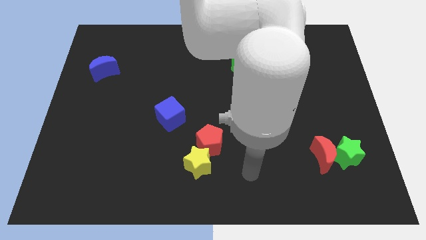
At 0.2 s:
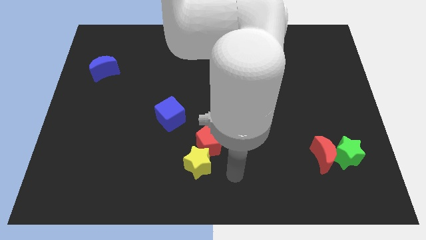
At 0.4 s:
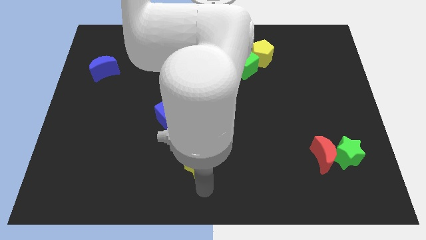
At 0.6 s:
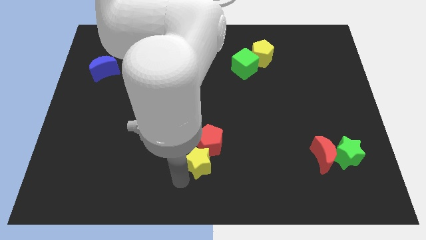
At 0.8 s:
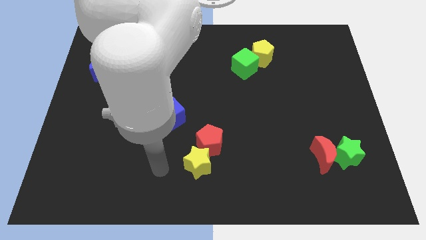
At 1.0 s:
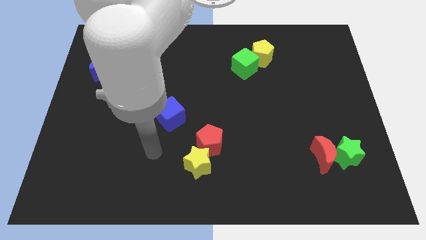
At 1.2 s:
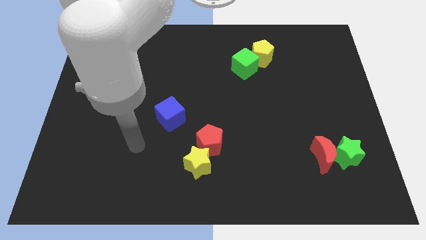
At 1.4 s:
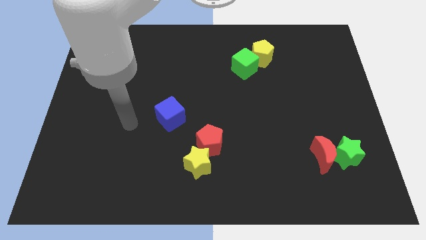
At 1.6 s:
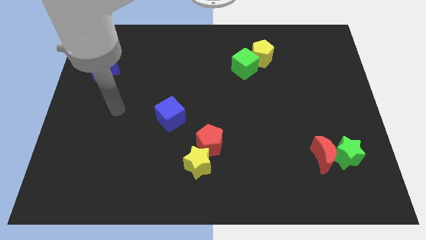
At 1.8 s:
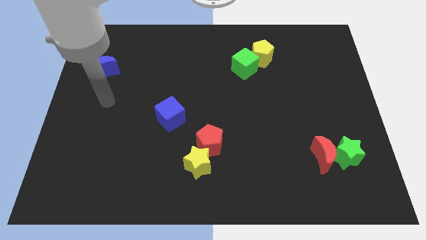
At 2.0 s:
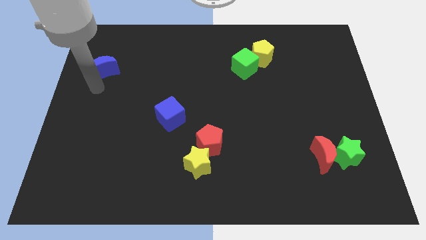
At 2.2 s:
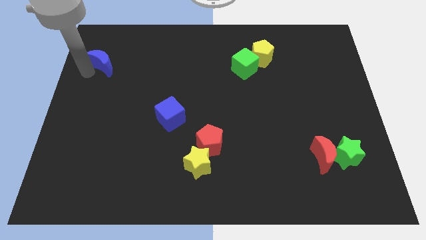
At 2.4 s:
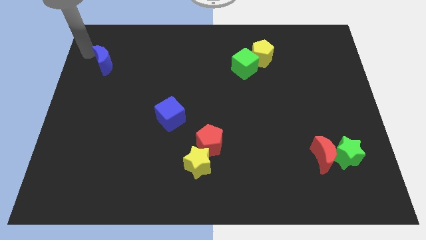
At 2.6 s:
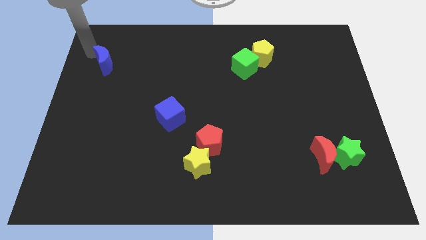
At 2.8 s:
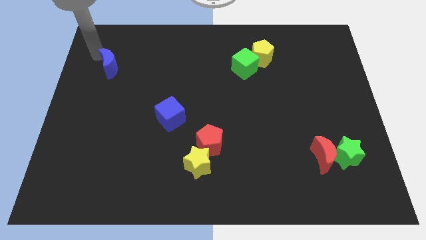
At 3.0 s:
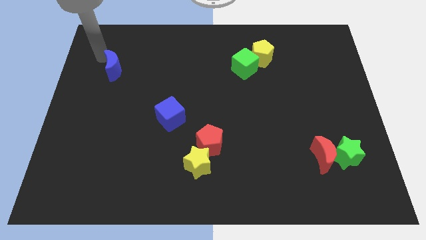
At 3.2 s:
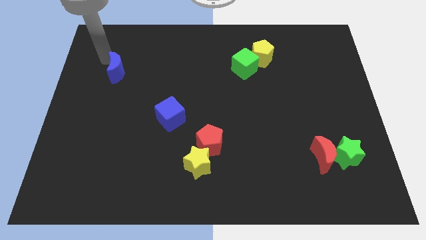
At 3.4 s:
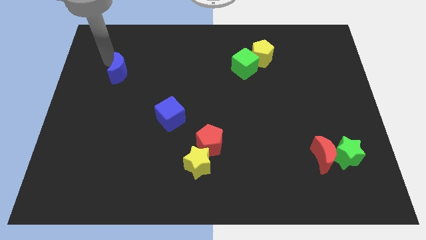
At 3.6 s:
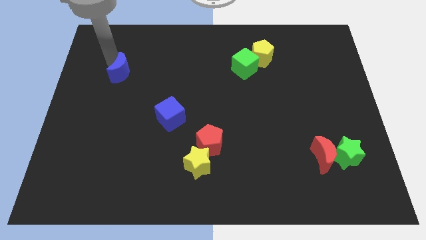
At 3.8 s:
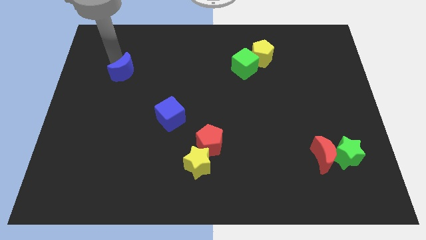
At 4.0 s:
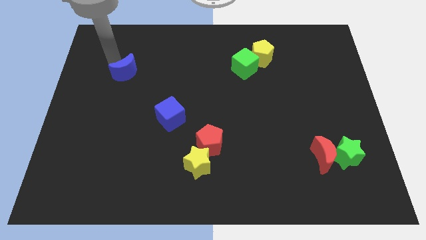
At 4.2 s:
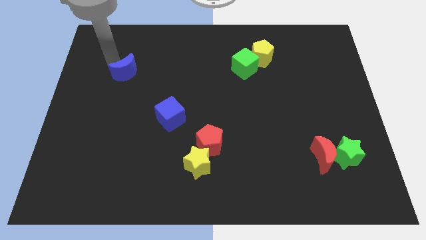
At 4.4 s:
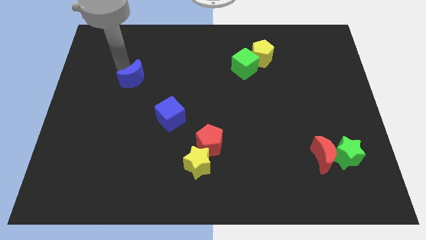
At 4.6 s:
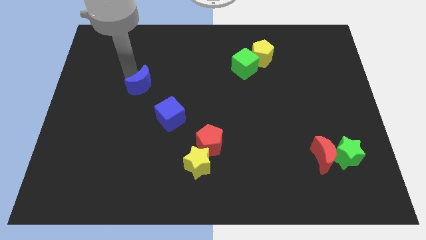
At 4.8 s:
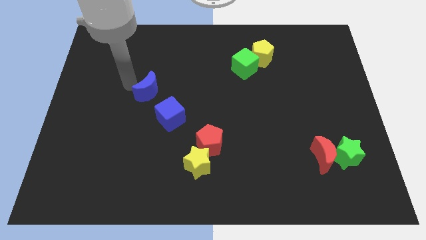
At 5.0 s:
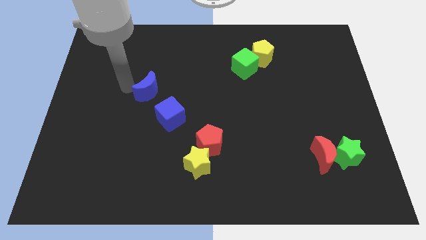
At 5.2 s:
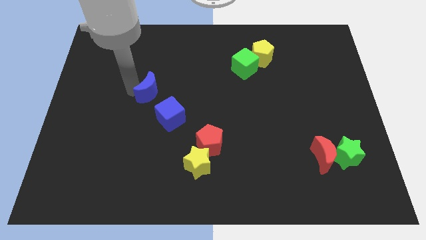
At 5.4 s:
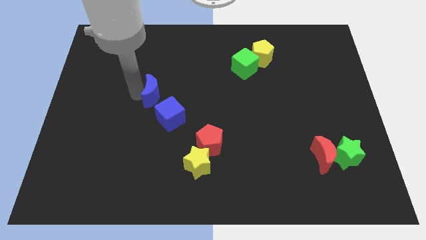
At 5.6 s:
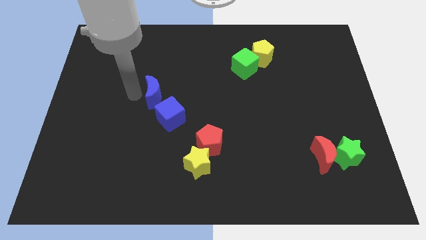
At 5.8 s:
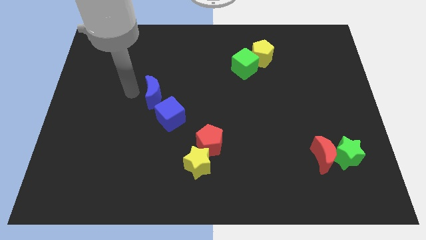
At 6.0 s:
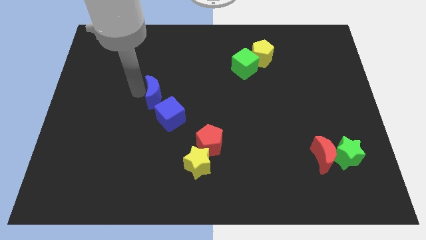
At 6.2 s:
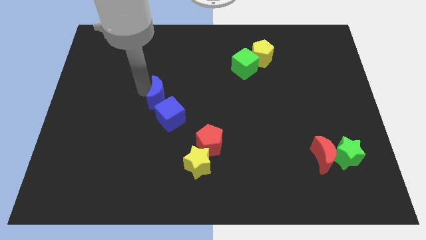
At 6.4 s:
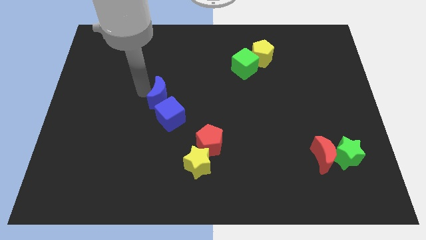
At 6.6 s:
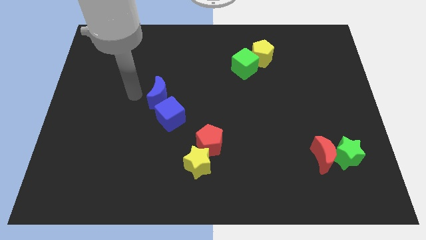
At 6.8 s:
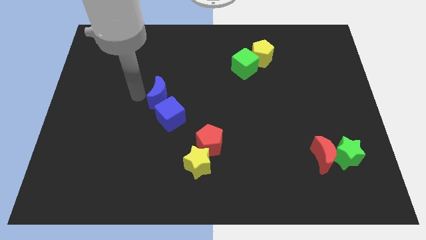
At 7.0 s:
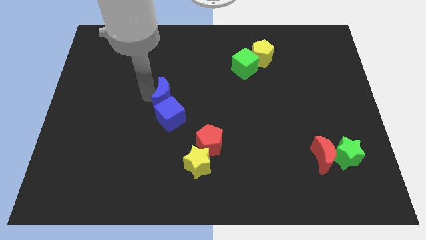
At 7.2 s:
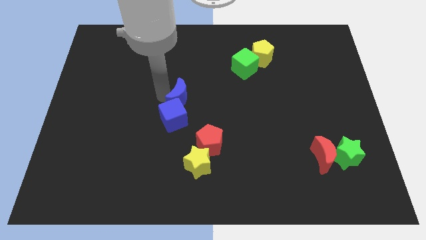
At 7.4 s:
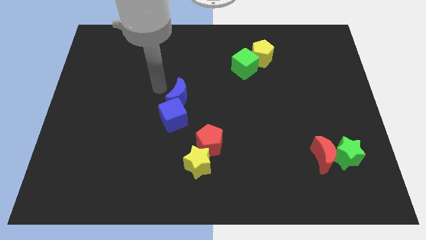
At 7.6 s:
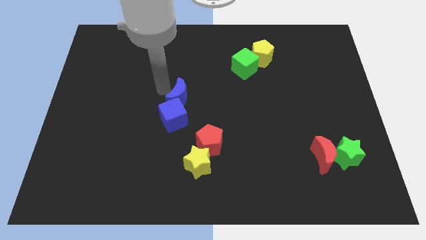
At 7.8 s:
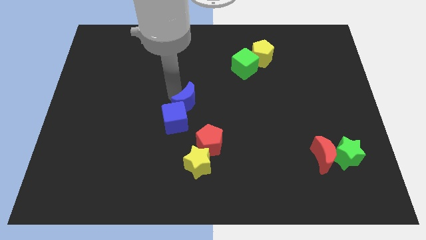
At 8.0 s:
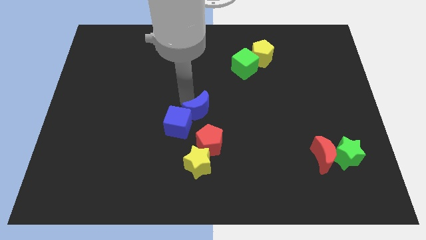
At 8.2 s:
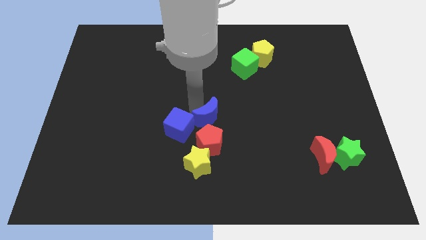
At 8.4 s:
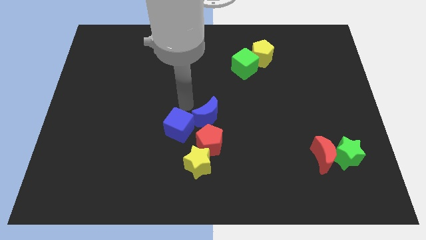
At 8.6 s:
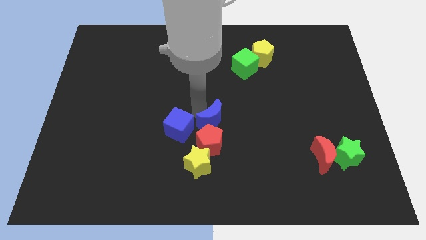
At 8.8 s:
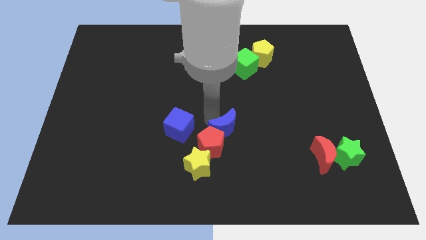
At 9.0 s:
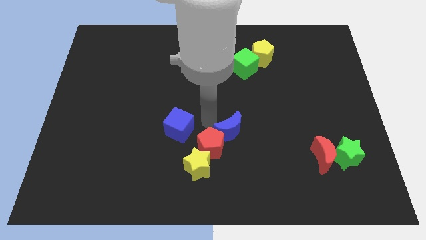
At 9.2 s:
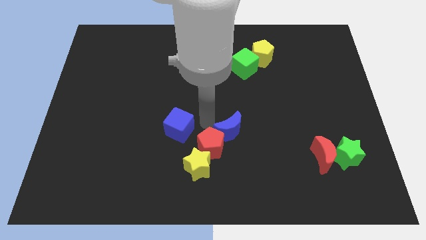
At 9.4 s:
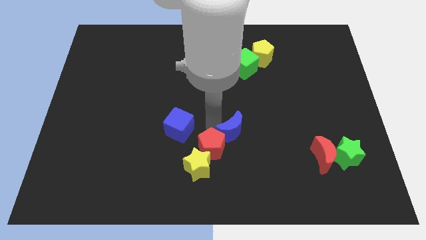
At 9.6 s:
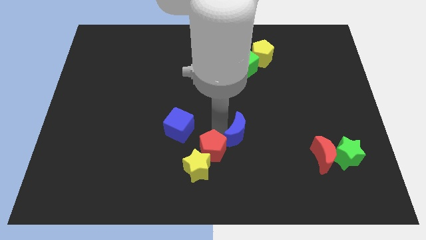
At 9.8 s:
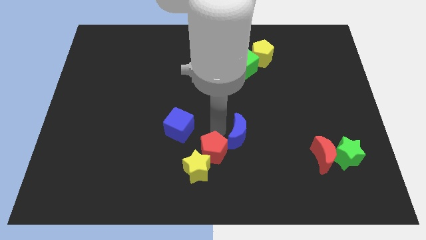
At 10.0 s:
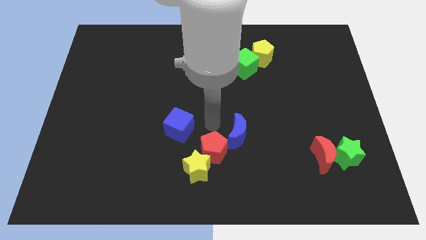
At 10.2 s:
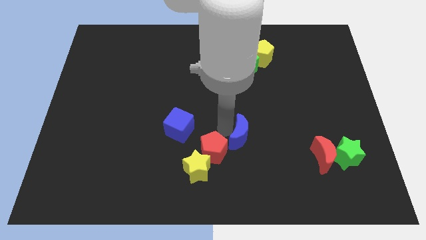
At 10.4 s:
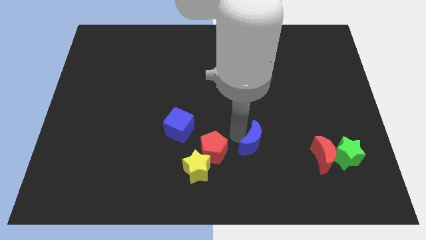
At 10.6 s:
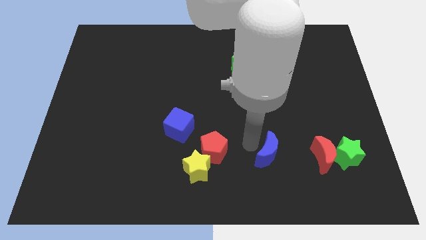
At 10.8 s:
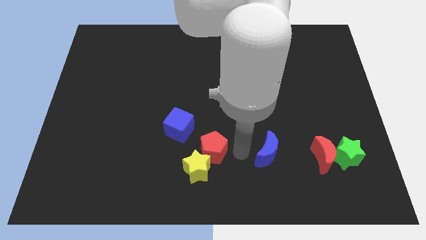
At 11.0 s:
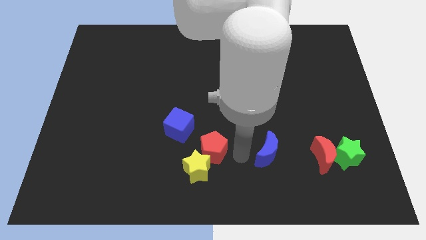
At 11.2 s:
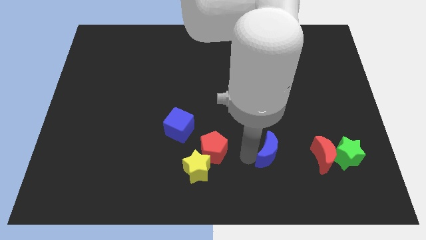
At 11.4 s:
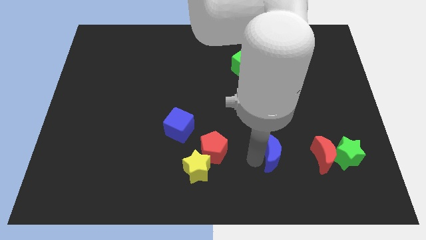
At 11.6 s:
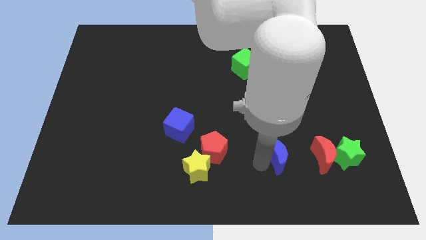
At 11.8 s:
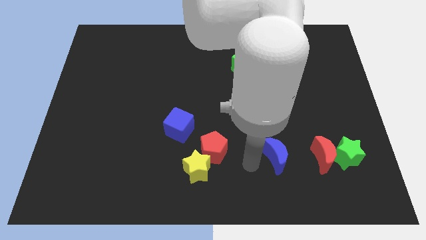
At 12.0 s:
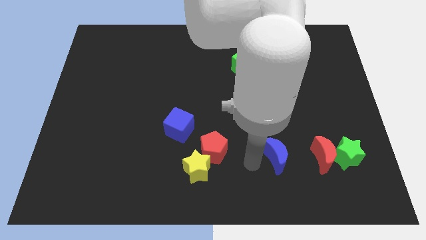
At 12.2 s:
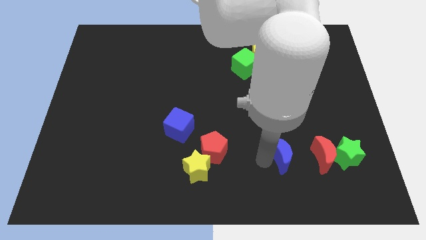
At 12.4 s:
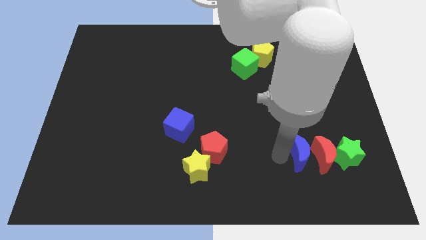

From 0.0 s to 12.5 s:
push the blue moon to the red moon

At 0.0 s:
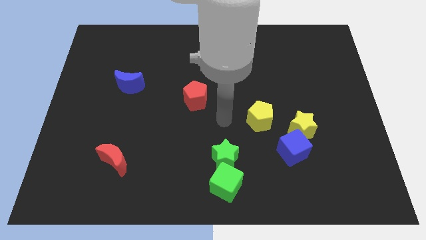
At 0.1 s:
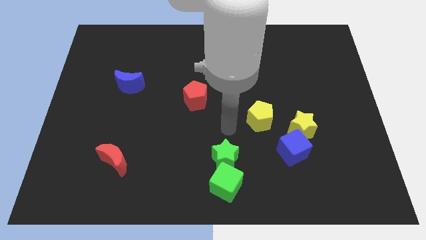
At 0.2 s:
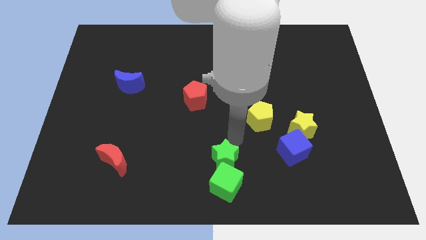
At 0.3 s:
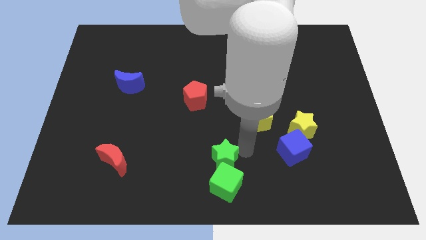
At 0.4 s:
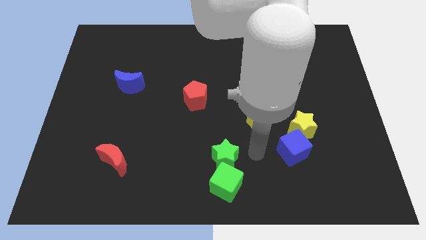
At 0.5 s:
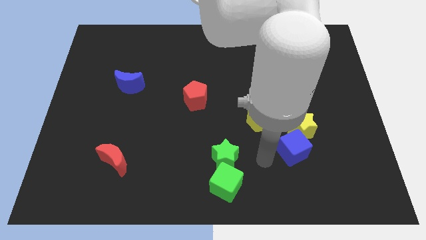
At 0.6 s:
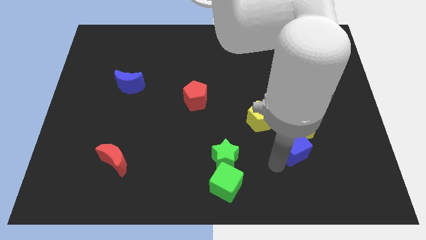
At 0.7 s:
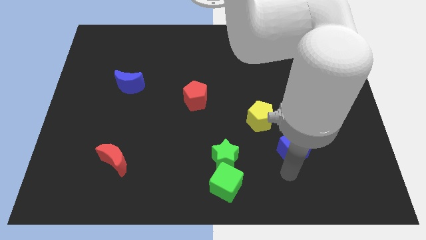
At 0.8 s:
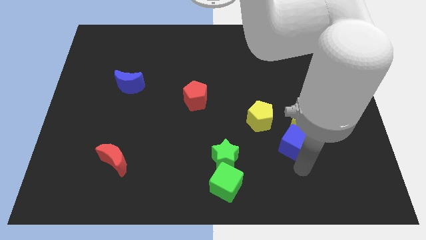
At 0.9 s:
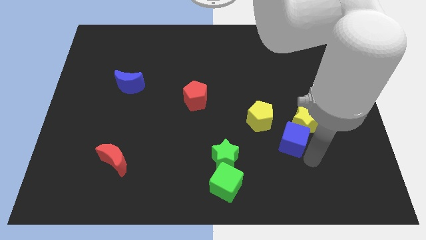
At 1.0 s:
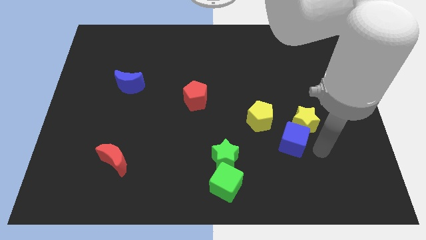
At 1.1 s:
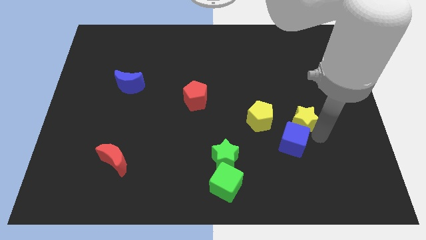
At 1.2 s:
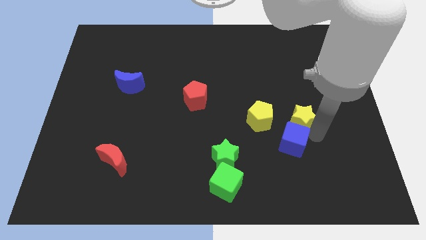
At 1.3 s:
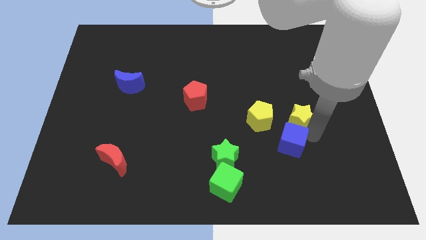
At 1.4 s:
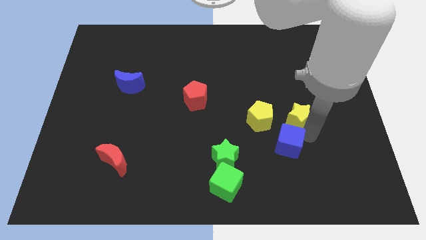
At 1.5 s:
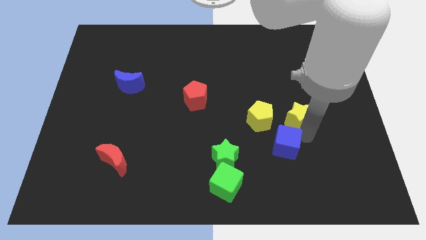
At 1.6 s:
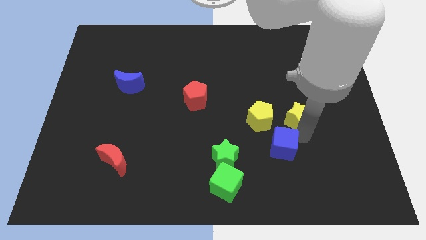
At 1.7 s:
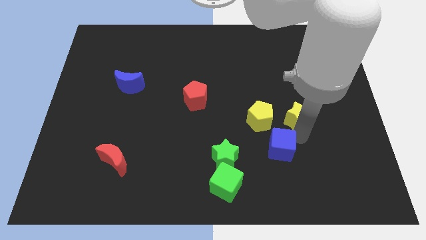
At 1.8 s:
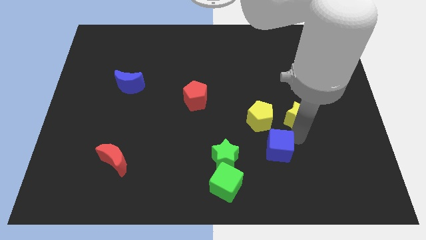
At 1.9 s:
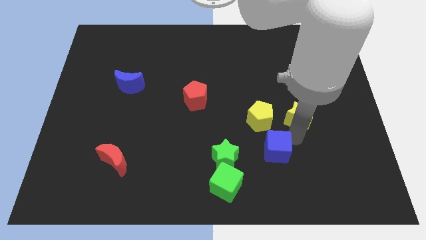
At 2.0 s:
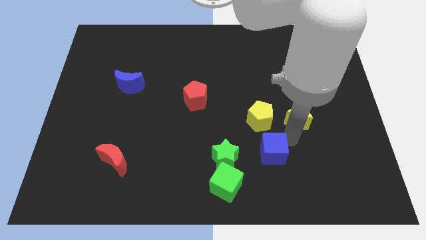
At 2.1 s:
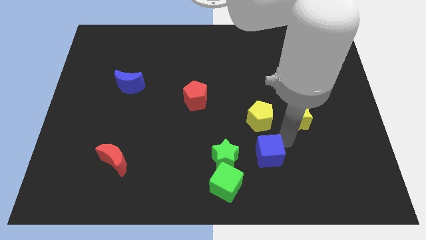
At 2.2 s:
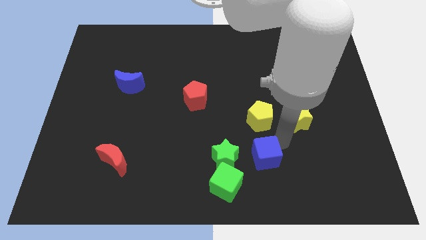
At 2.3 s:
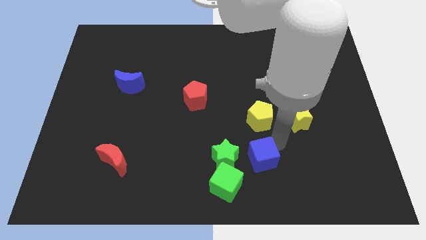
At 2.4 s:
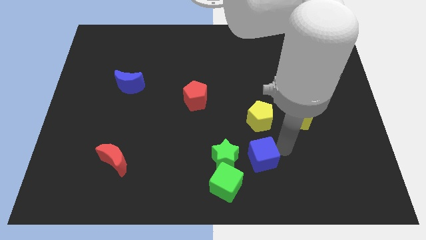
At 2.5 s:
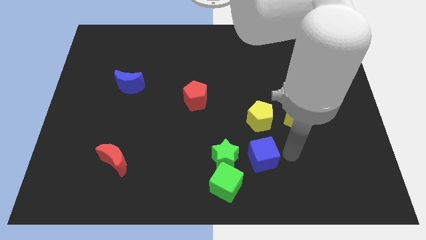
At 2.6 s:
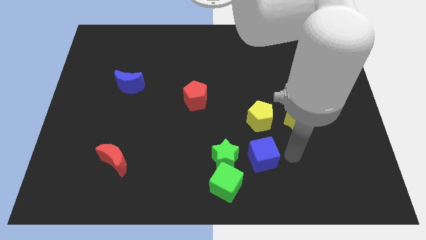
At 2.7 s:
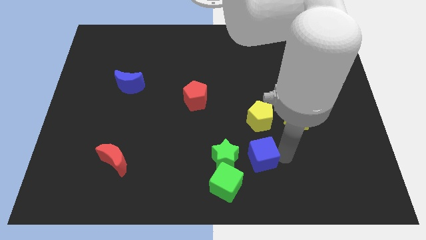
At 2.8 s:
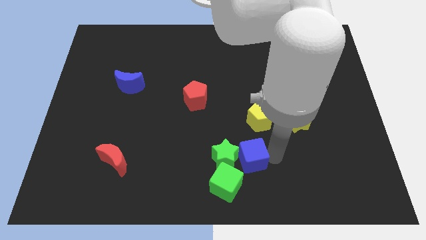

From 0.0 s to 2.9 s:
slide the blue cube next to the green star
